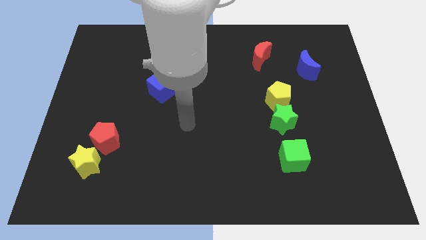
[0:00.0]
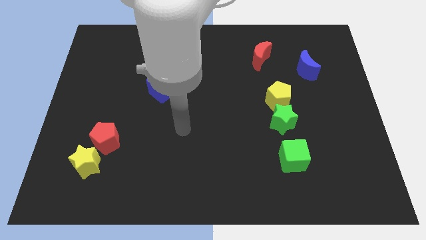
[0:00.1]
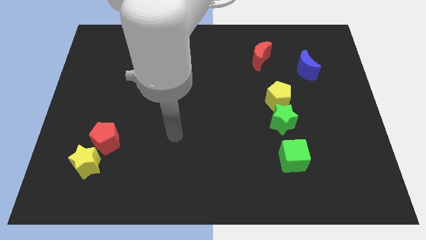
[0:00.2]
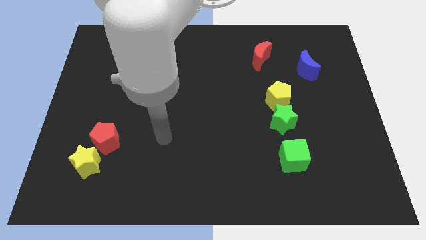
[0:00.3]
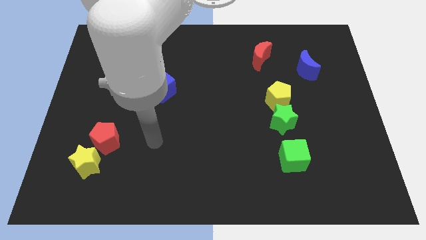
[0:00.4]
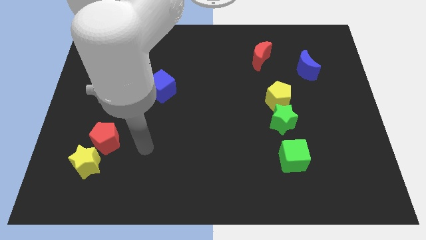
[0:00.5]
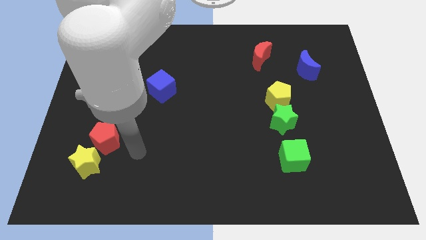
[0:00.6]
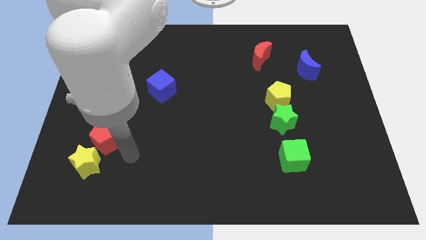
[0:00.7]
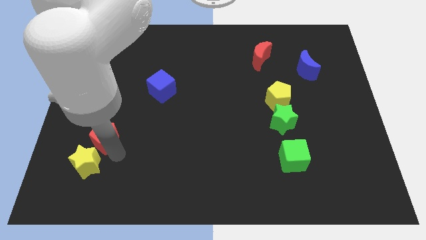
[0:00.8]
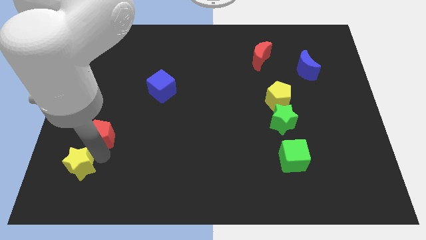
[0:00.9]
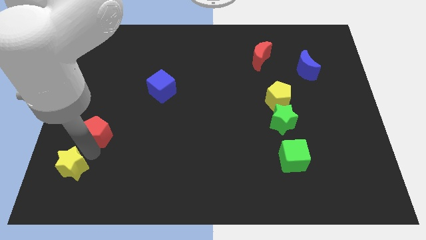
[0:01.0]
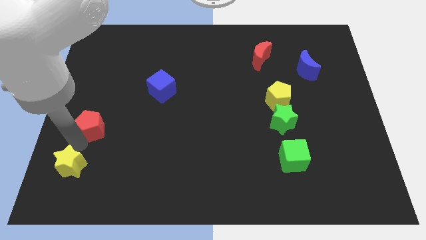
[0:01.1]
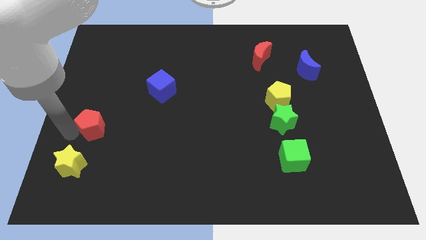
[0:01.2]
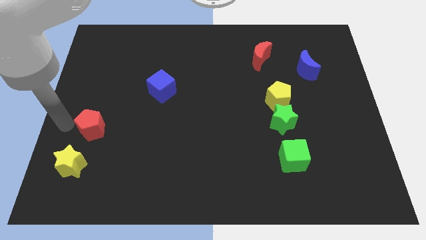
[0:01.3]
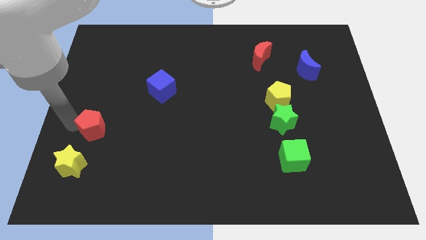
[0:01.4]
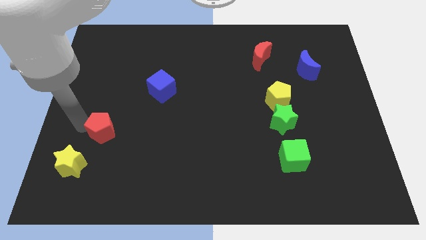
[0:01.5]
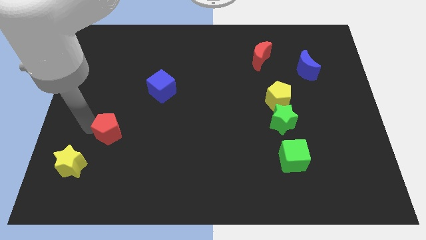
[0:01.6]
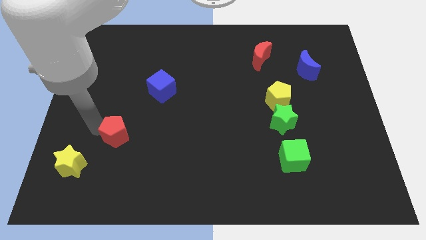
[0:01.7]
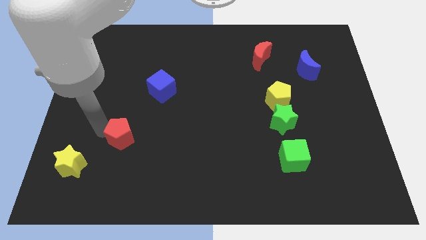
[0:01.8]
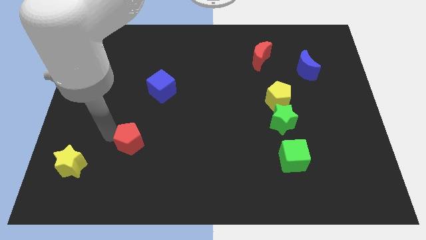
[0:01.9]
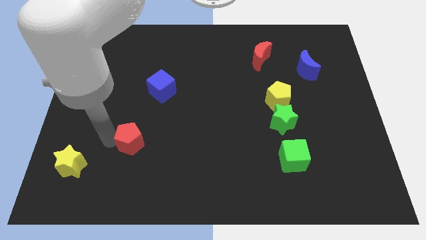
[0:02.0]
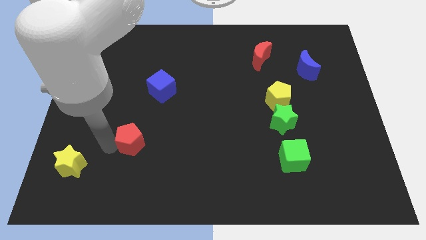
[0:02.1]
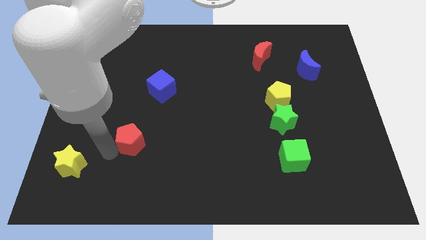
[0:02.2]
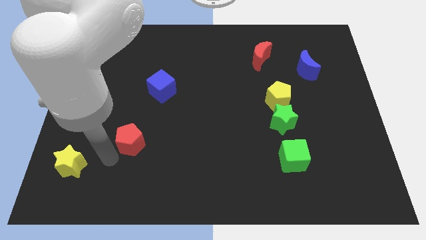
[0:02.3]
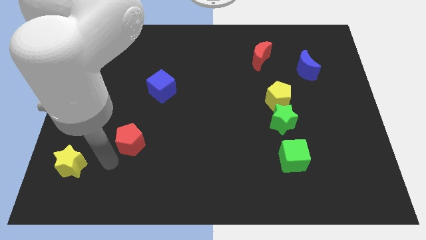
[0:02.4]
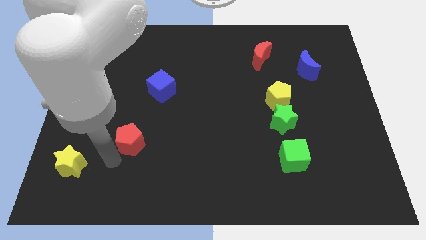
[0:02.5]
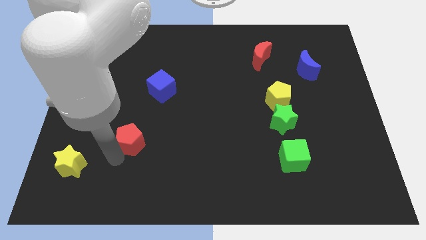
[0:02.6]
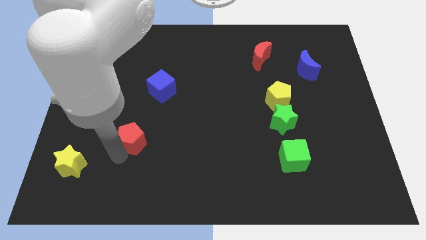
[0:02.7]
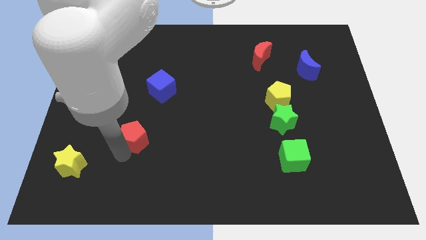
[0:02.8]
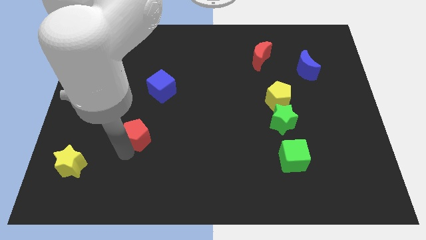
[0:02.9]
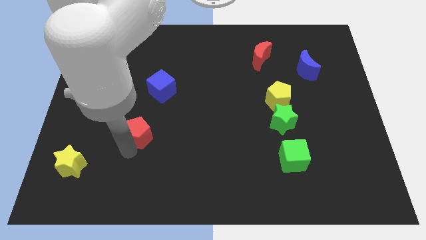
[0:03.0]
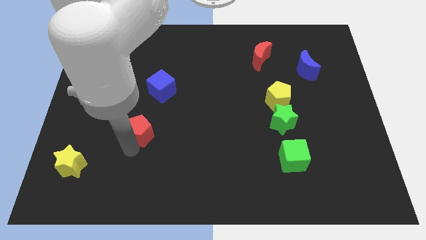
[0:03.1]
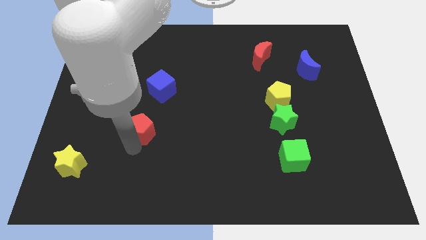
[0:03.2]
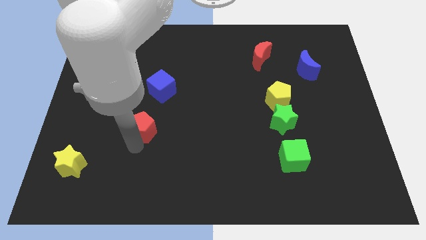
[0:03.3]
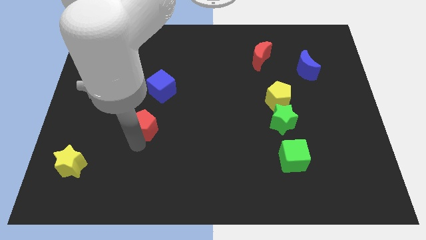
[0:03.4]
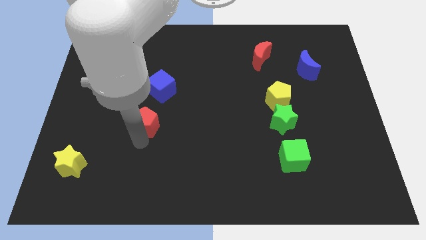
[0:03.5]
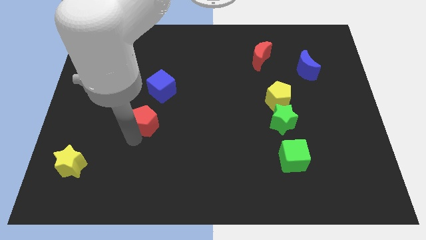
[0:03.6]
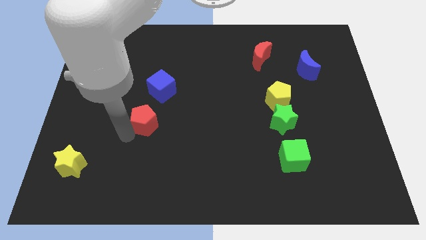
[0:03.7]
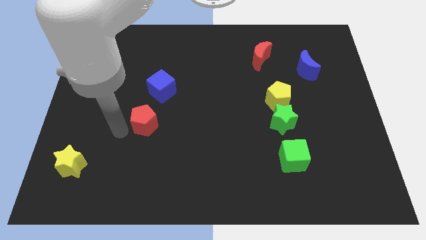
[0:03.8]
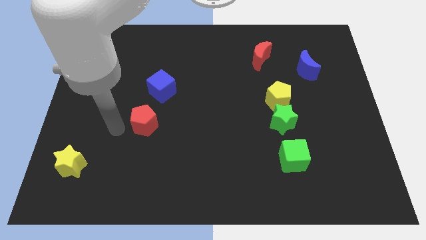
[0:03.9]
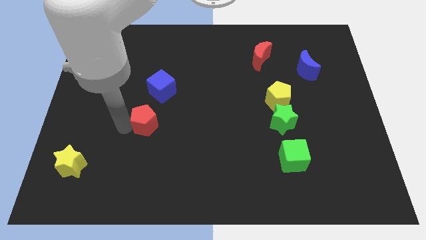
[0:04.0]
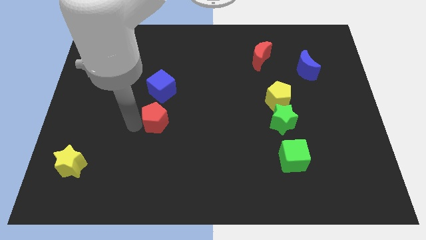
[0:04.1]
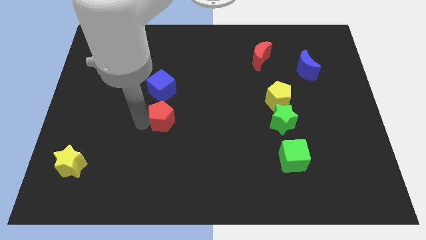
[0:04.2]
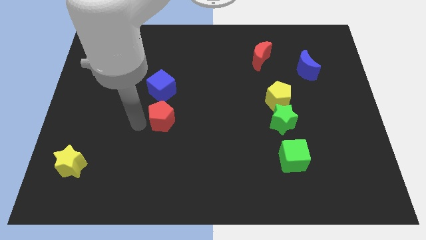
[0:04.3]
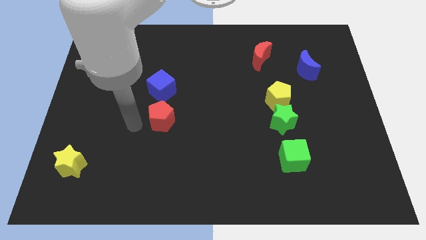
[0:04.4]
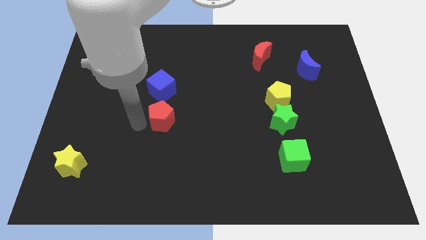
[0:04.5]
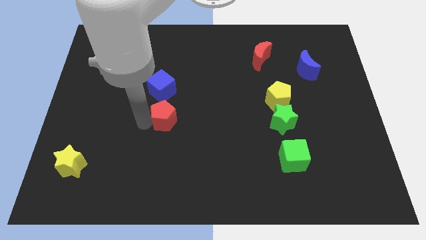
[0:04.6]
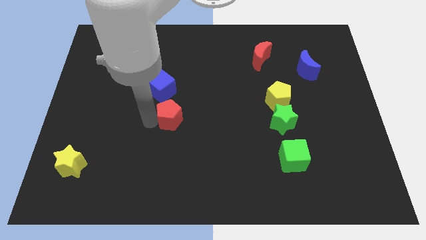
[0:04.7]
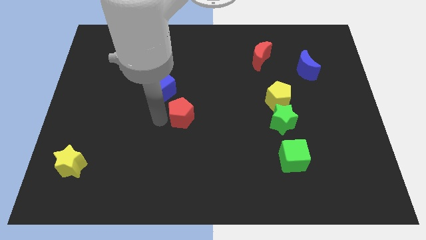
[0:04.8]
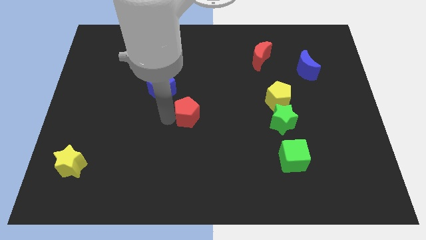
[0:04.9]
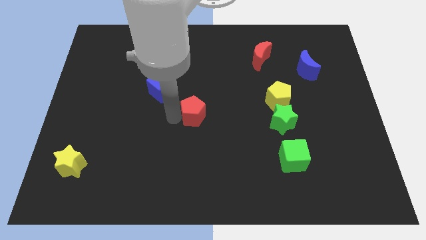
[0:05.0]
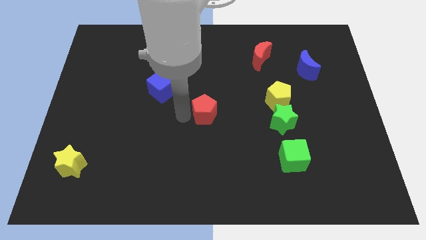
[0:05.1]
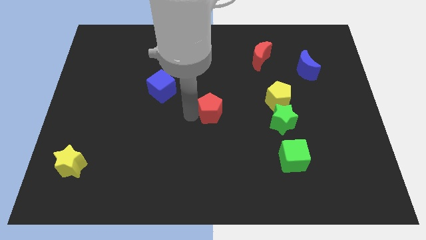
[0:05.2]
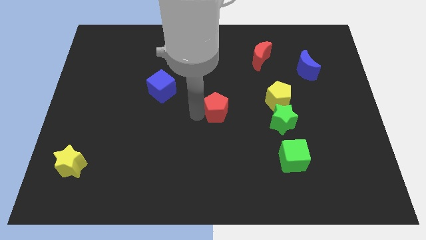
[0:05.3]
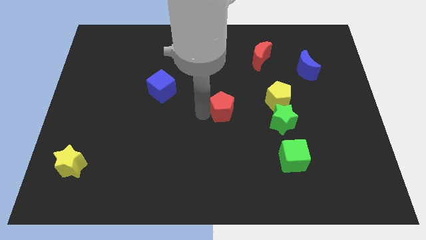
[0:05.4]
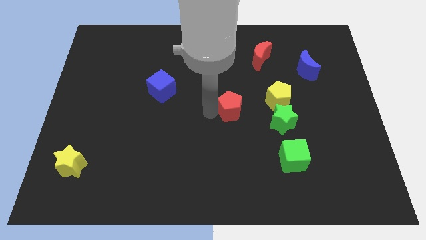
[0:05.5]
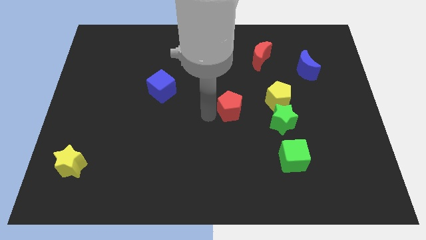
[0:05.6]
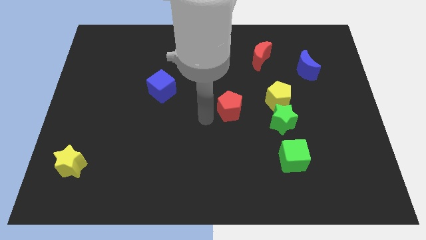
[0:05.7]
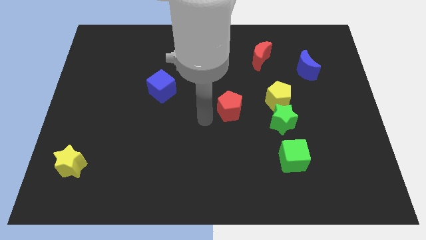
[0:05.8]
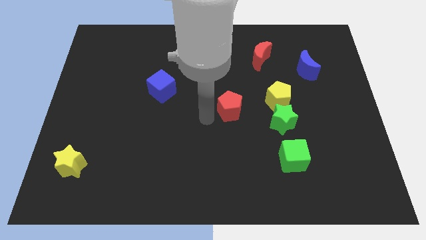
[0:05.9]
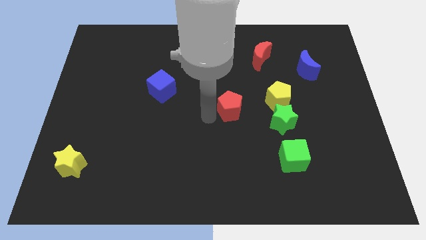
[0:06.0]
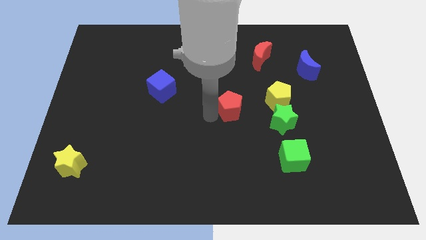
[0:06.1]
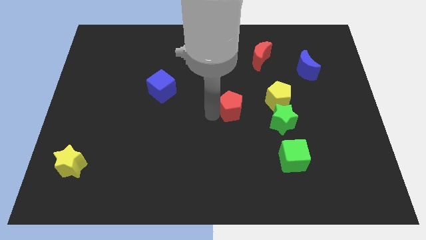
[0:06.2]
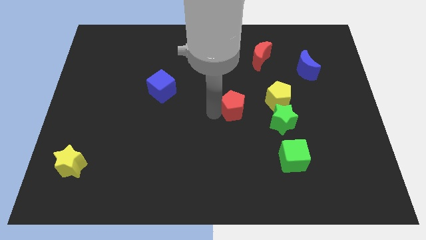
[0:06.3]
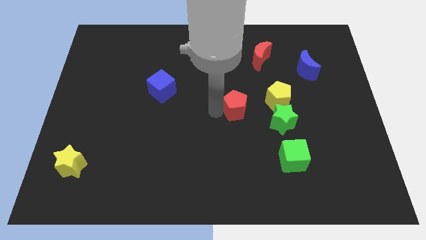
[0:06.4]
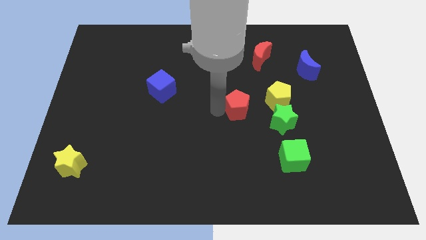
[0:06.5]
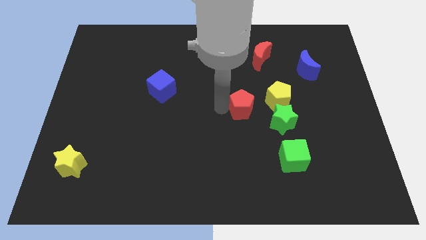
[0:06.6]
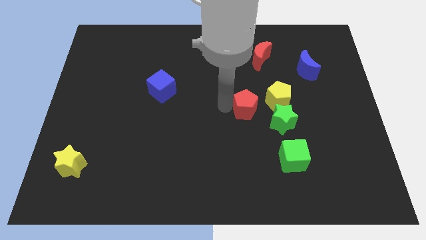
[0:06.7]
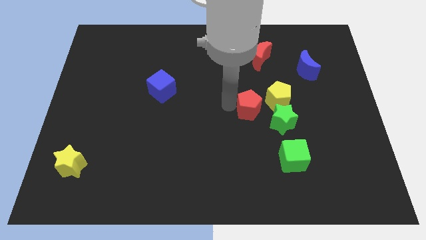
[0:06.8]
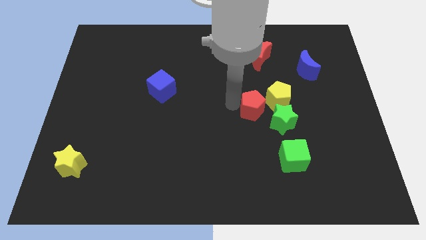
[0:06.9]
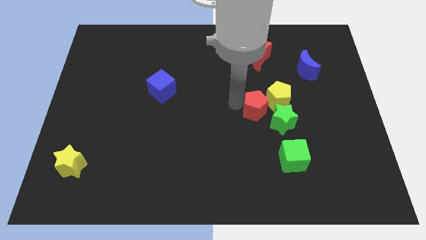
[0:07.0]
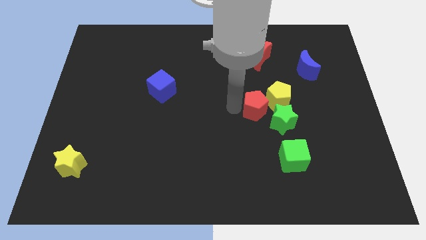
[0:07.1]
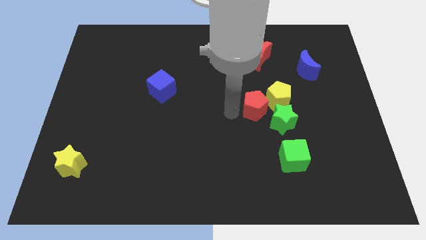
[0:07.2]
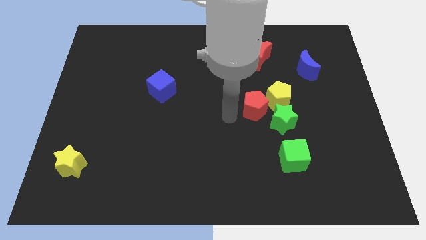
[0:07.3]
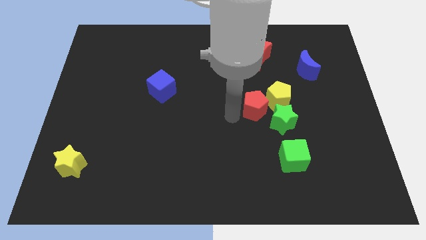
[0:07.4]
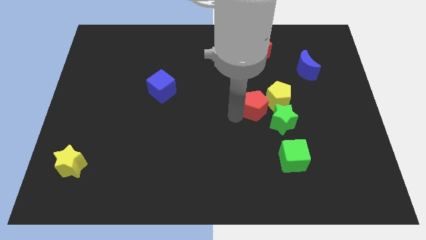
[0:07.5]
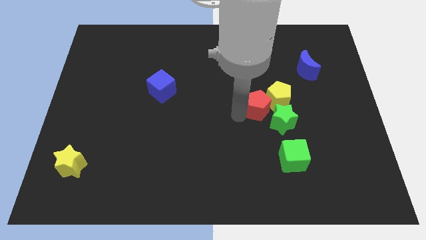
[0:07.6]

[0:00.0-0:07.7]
slide the red pentagon towards the yellow pentagon
